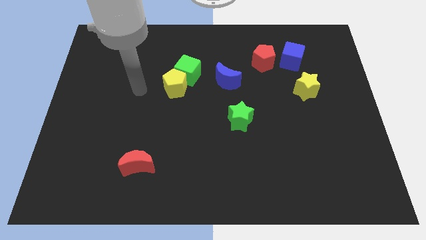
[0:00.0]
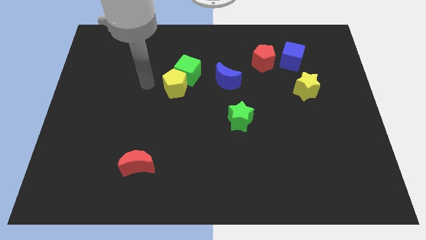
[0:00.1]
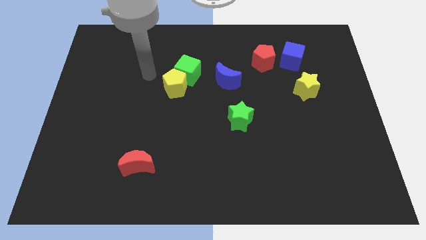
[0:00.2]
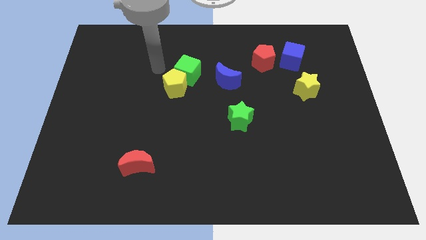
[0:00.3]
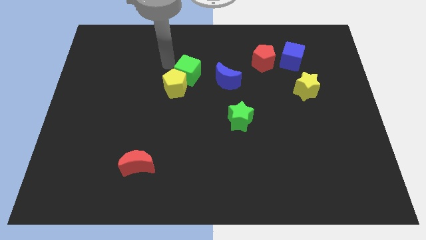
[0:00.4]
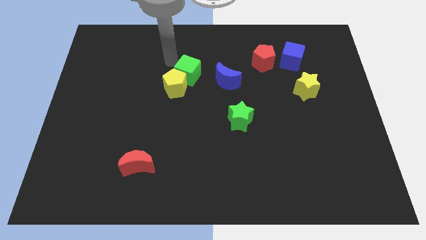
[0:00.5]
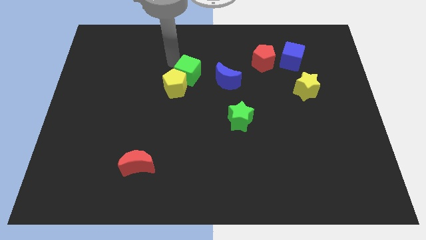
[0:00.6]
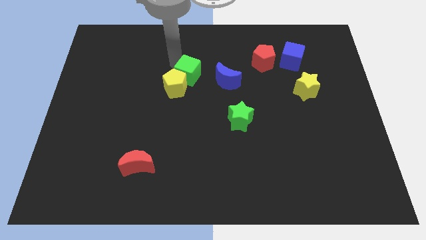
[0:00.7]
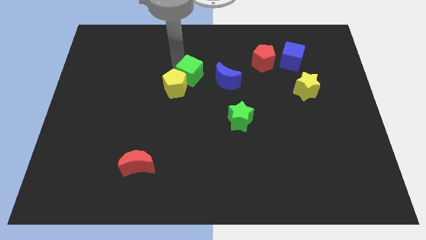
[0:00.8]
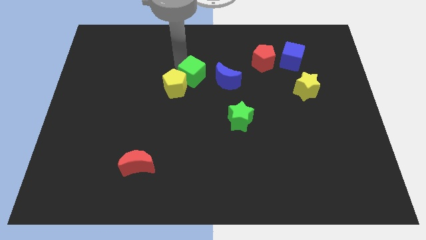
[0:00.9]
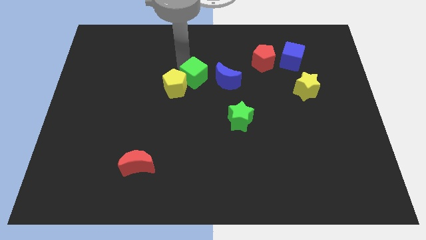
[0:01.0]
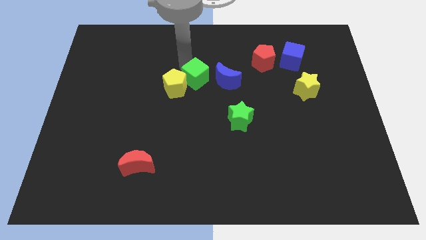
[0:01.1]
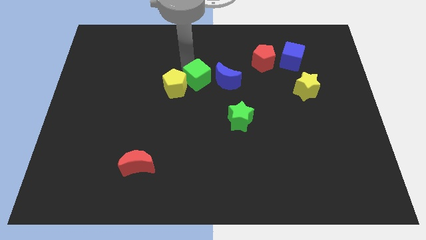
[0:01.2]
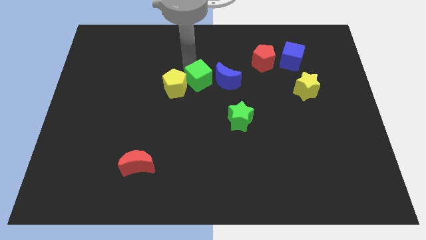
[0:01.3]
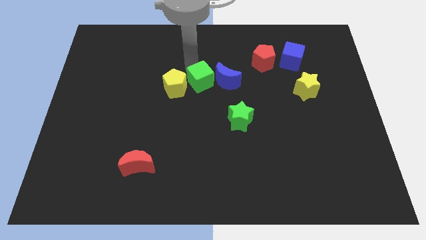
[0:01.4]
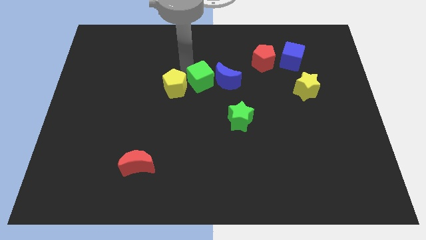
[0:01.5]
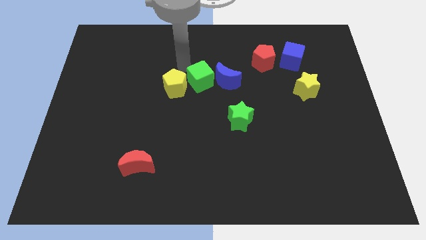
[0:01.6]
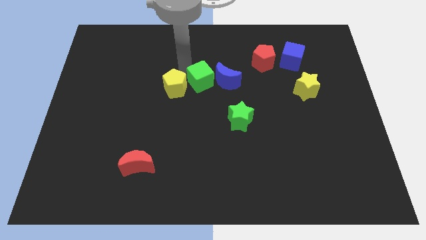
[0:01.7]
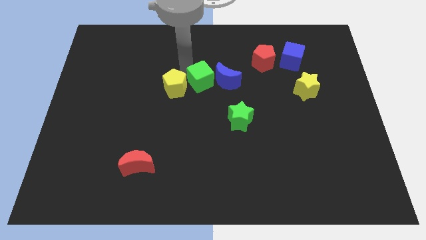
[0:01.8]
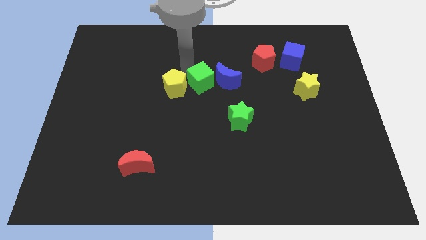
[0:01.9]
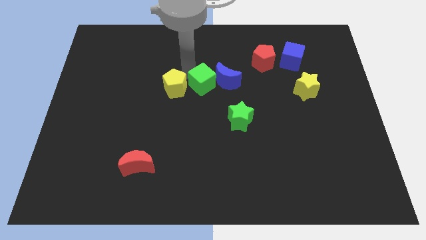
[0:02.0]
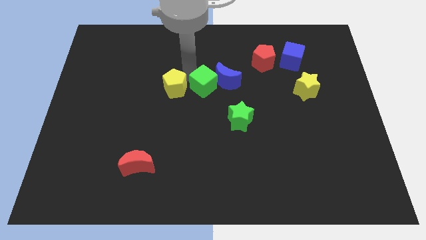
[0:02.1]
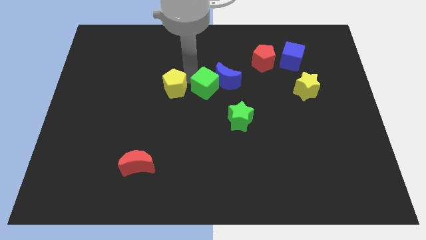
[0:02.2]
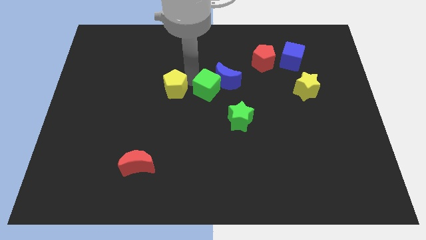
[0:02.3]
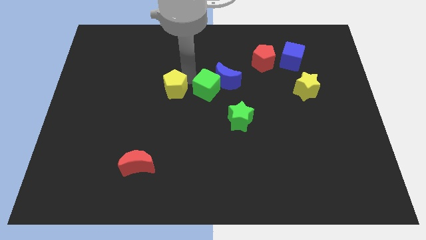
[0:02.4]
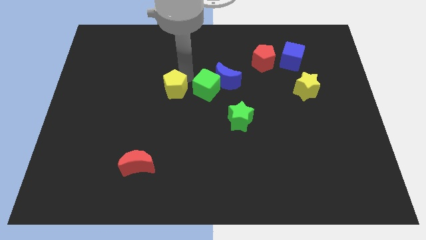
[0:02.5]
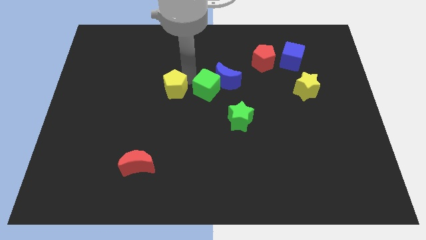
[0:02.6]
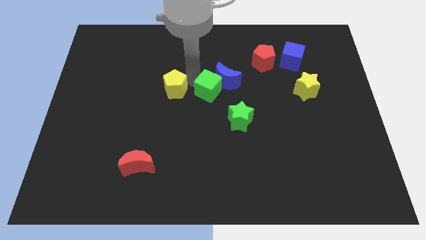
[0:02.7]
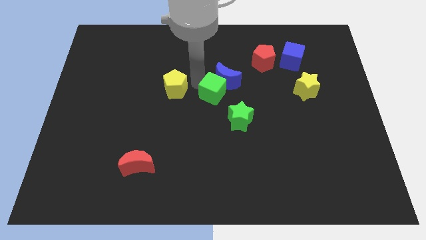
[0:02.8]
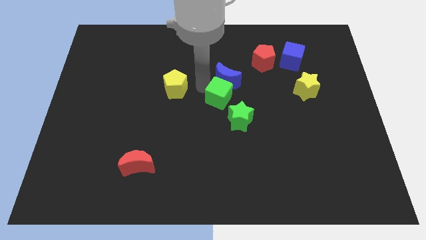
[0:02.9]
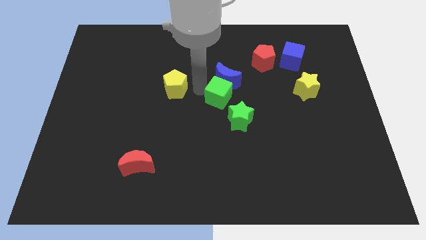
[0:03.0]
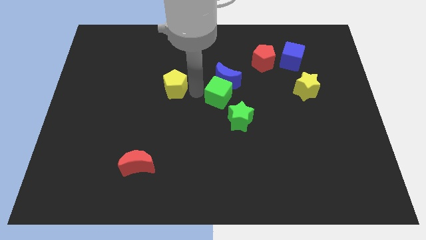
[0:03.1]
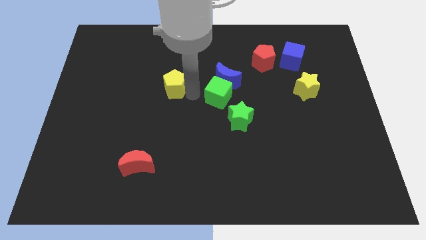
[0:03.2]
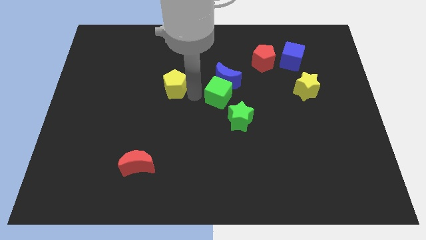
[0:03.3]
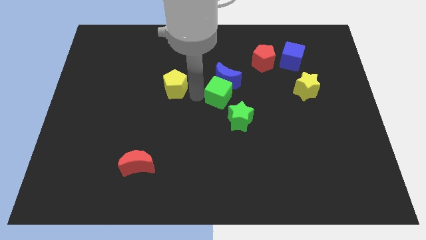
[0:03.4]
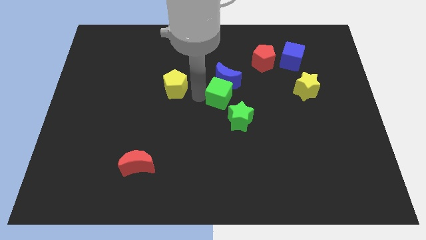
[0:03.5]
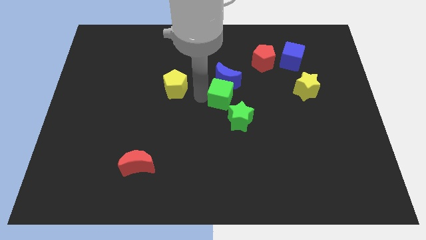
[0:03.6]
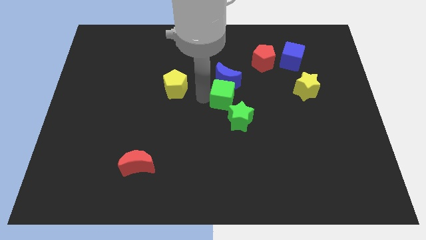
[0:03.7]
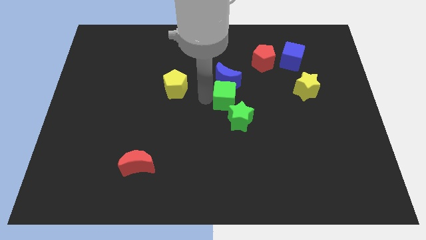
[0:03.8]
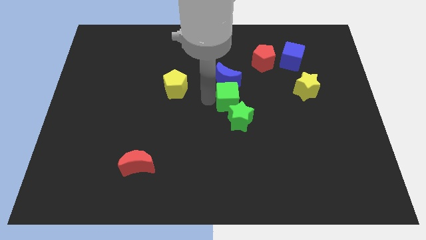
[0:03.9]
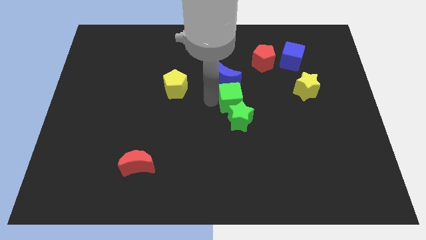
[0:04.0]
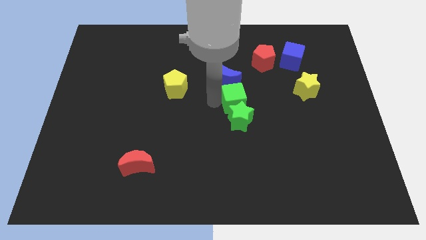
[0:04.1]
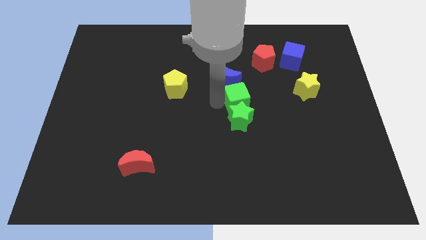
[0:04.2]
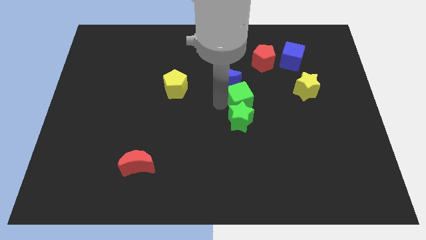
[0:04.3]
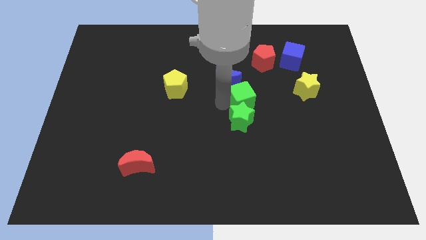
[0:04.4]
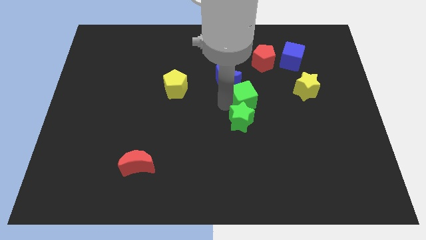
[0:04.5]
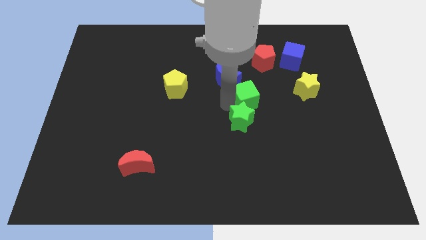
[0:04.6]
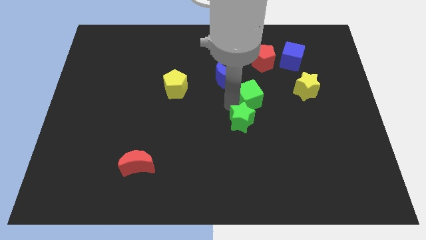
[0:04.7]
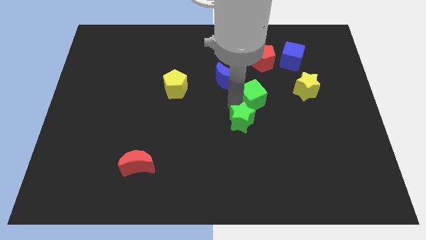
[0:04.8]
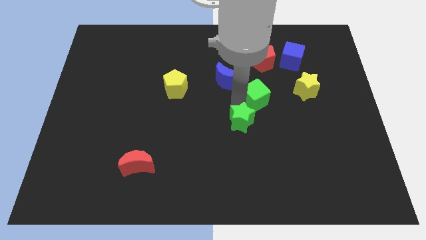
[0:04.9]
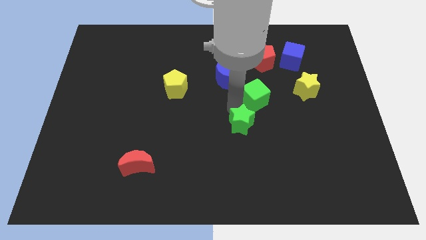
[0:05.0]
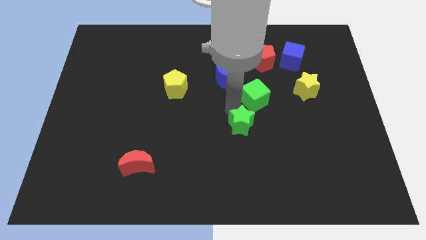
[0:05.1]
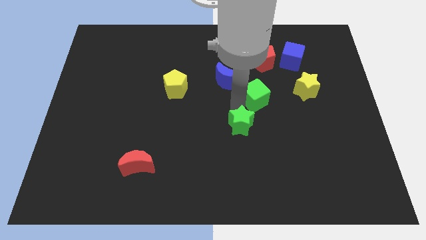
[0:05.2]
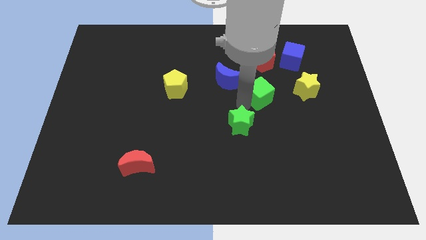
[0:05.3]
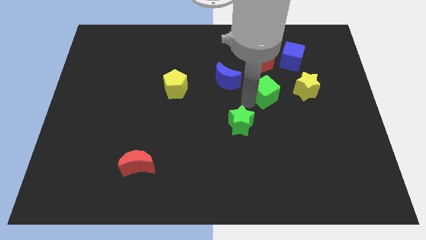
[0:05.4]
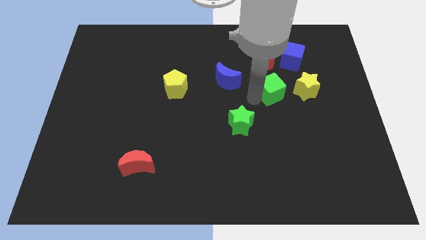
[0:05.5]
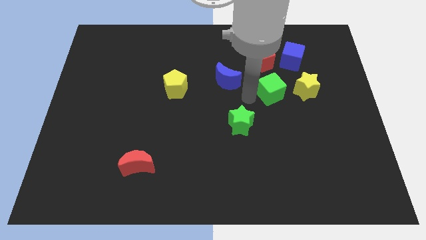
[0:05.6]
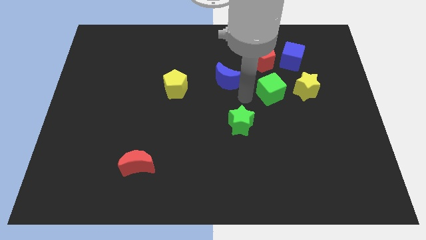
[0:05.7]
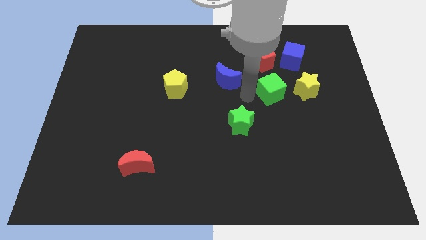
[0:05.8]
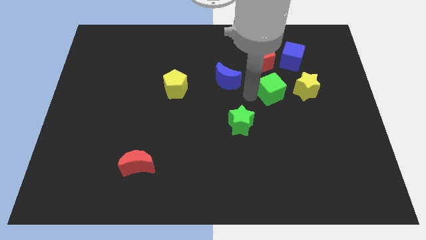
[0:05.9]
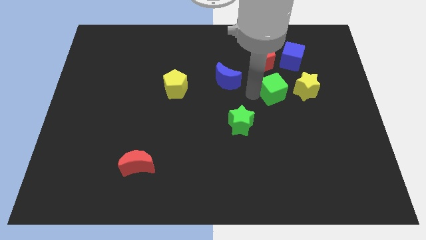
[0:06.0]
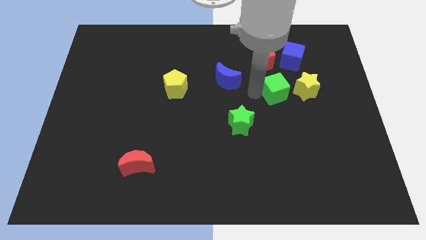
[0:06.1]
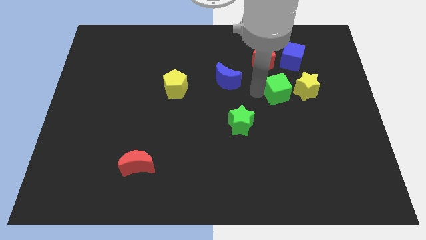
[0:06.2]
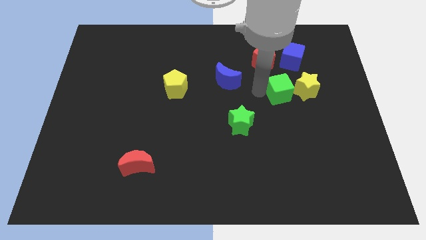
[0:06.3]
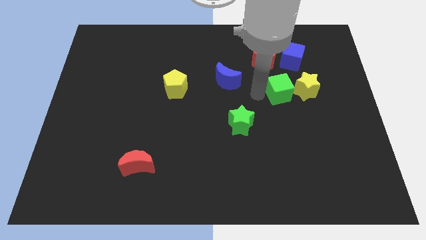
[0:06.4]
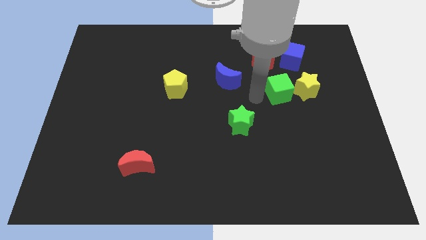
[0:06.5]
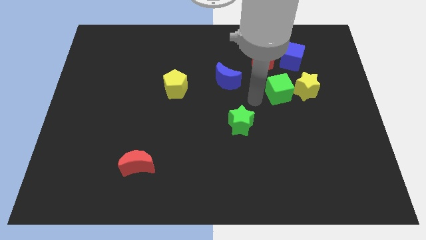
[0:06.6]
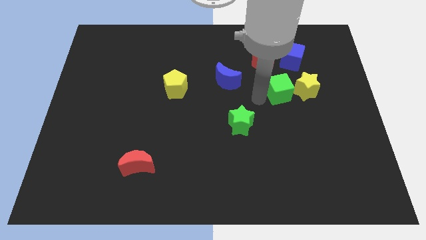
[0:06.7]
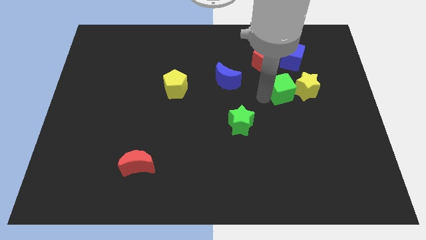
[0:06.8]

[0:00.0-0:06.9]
move the green cube close to the yellow star
